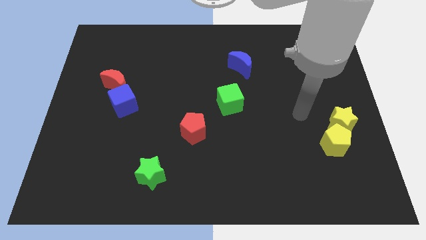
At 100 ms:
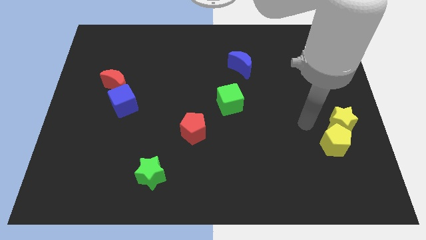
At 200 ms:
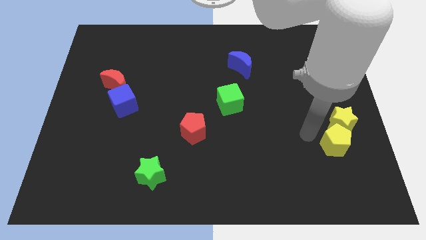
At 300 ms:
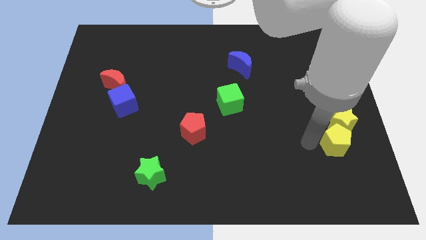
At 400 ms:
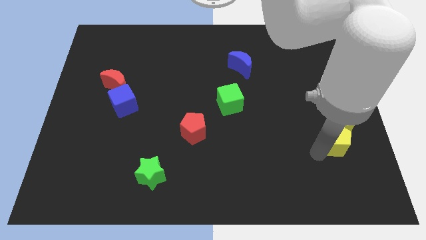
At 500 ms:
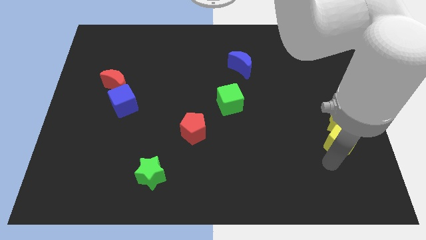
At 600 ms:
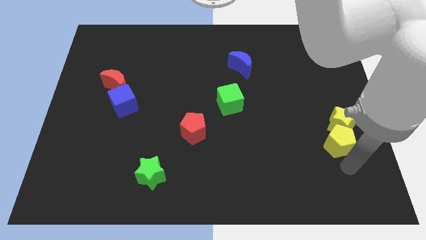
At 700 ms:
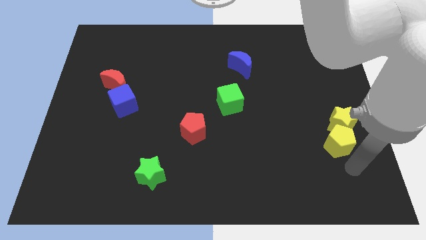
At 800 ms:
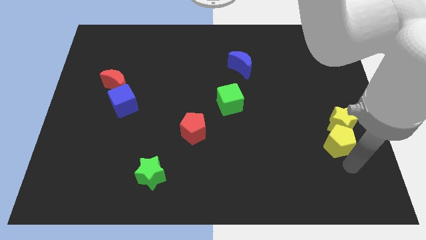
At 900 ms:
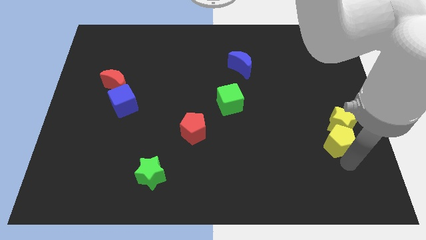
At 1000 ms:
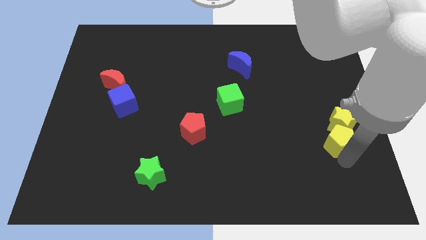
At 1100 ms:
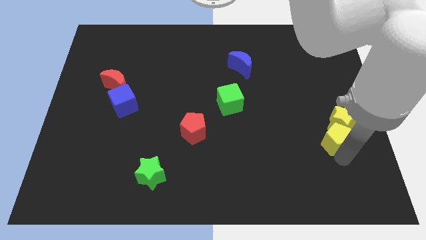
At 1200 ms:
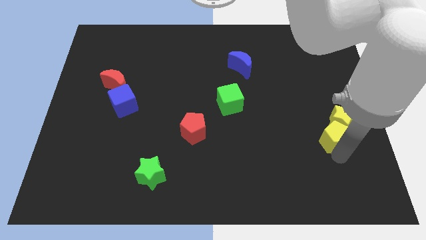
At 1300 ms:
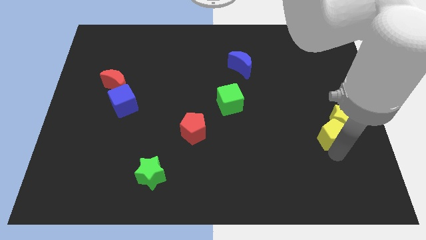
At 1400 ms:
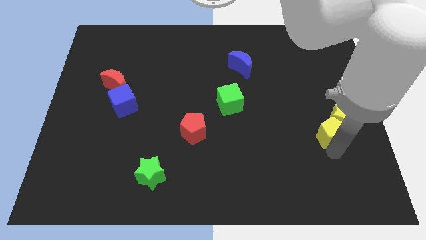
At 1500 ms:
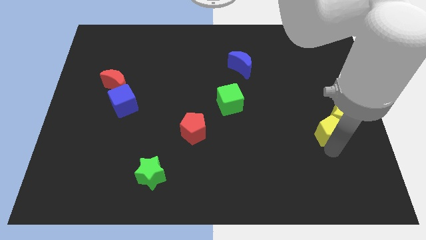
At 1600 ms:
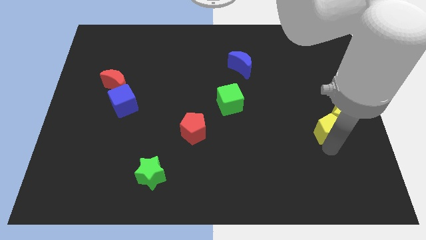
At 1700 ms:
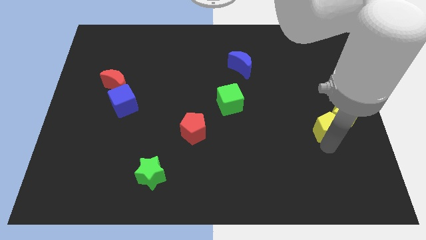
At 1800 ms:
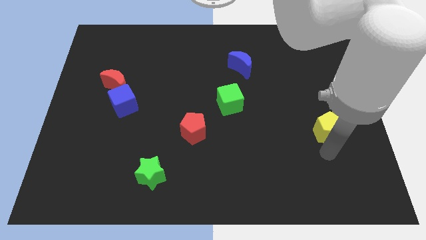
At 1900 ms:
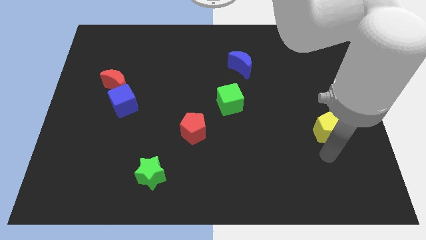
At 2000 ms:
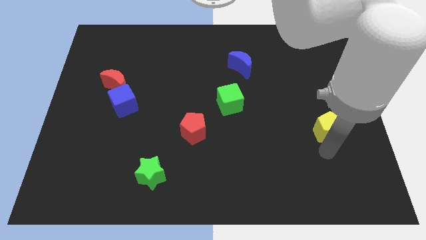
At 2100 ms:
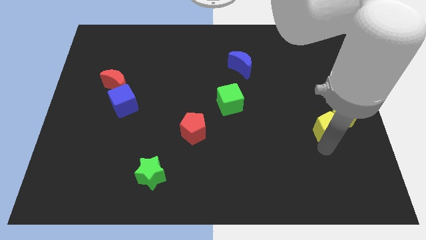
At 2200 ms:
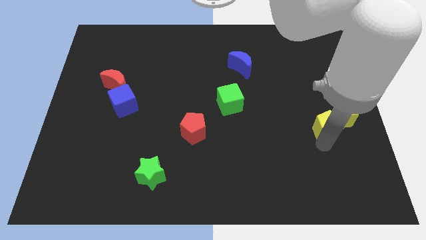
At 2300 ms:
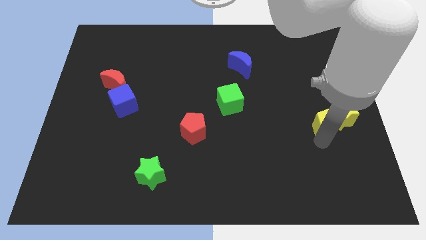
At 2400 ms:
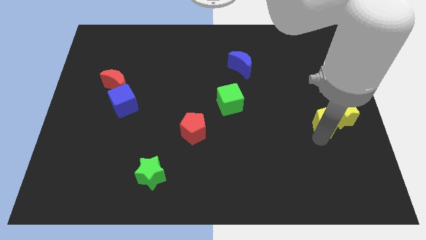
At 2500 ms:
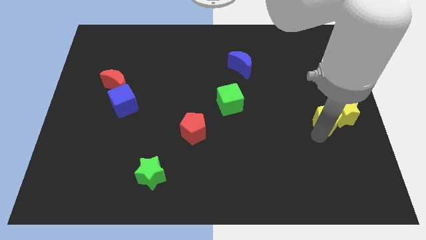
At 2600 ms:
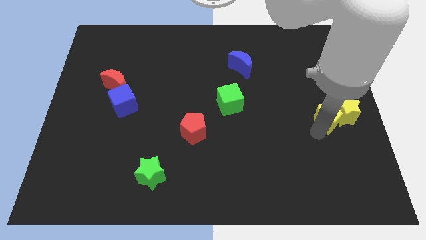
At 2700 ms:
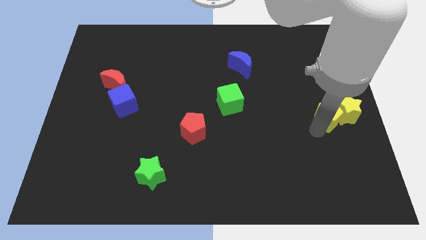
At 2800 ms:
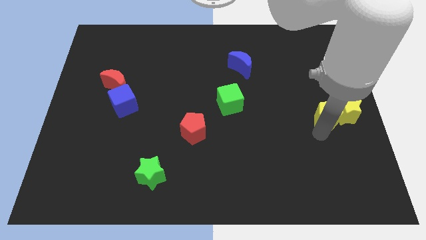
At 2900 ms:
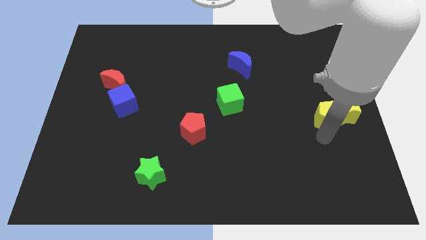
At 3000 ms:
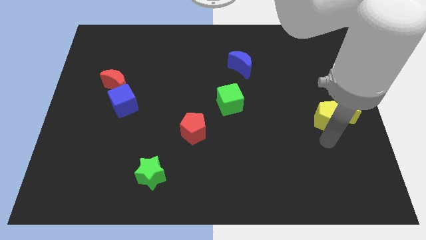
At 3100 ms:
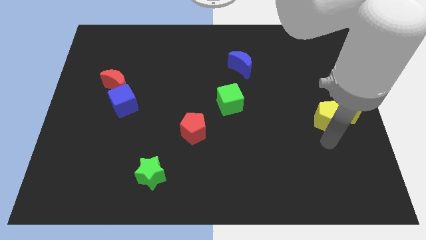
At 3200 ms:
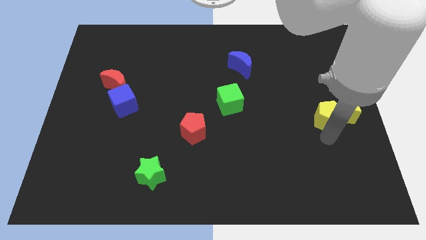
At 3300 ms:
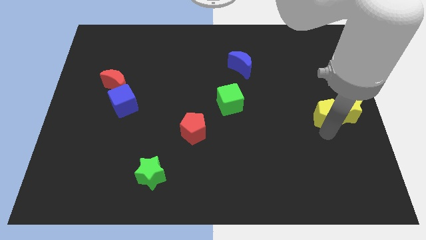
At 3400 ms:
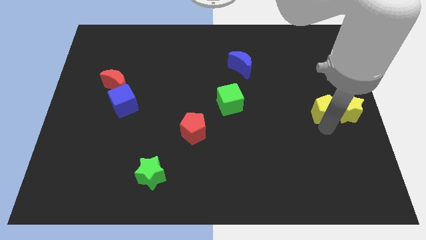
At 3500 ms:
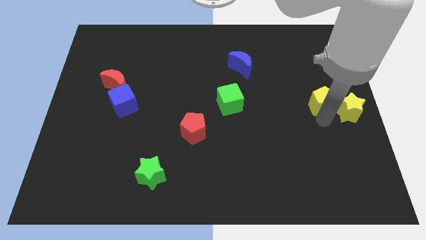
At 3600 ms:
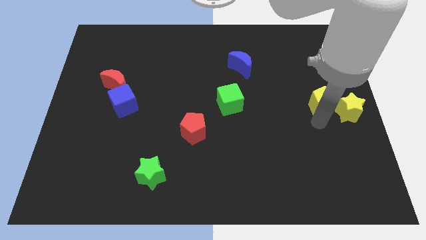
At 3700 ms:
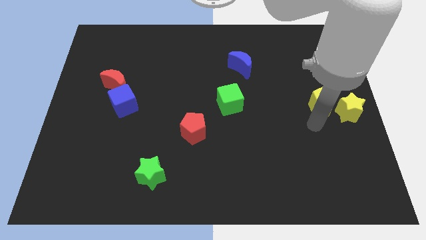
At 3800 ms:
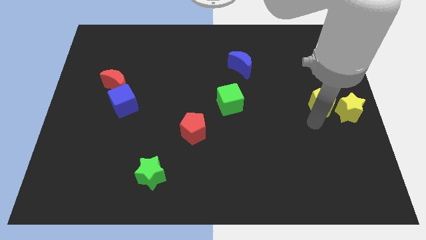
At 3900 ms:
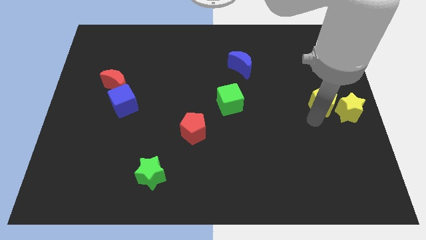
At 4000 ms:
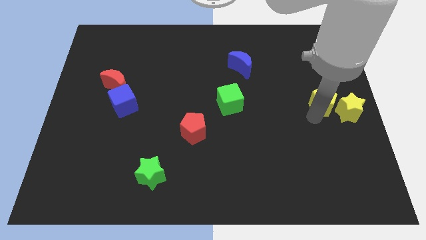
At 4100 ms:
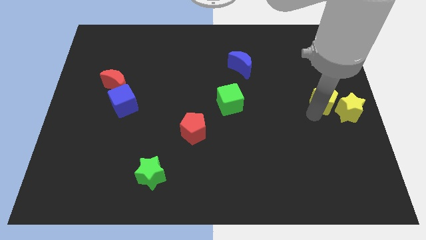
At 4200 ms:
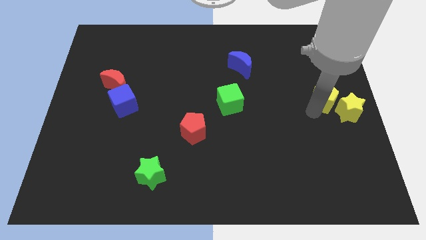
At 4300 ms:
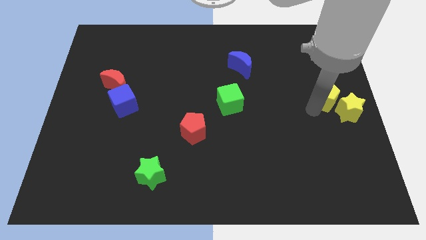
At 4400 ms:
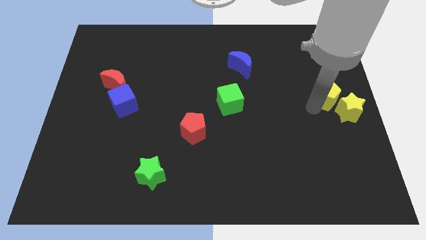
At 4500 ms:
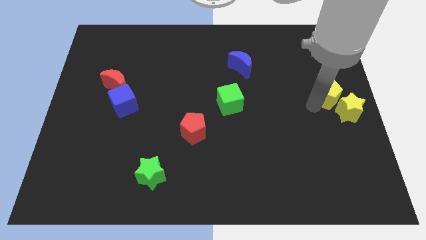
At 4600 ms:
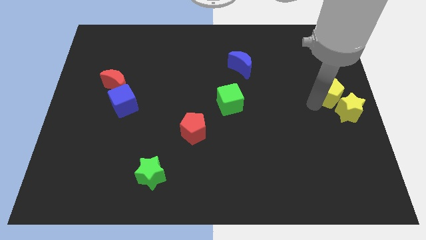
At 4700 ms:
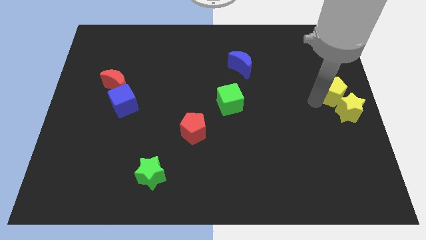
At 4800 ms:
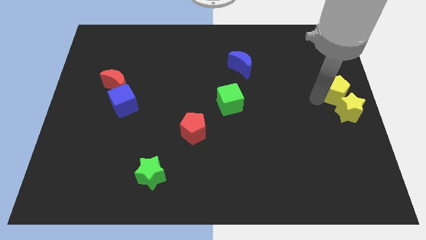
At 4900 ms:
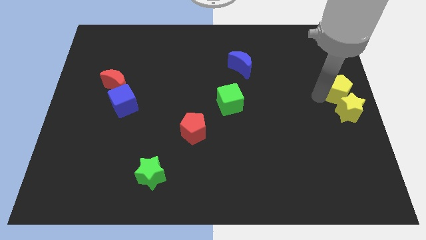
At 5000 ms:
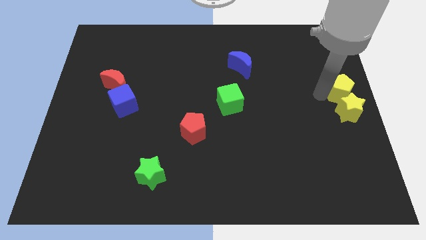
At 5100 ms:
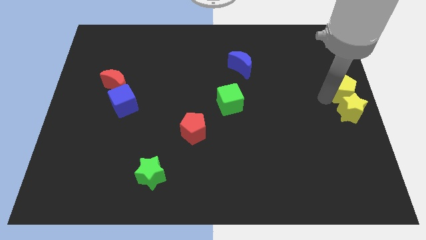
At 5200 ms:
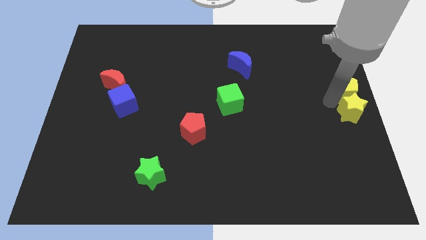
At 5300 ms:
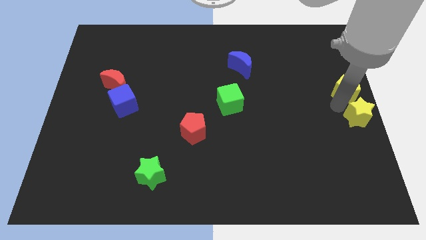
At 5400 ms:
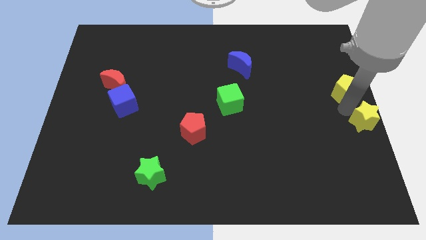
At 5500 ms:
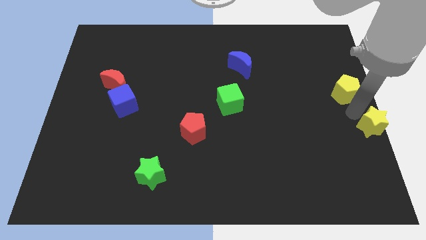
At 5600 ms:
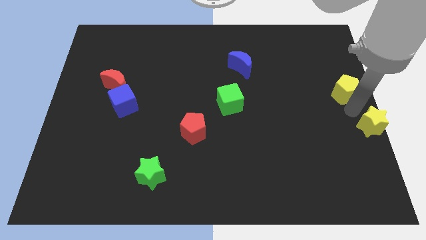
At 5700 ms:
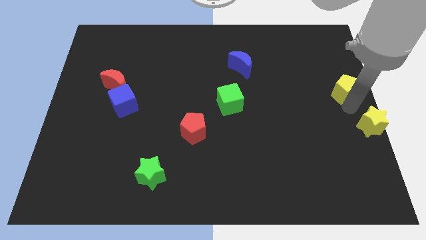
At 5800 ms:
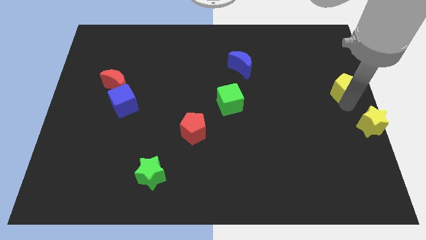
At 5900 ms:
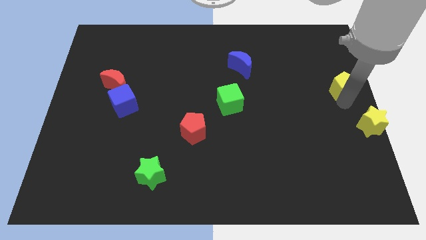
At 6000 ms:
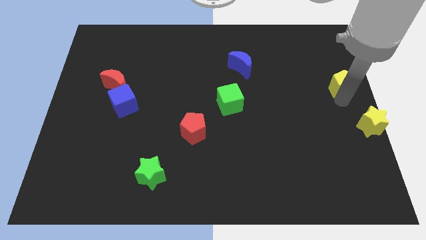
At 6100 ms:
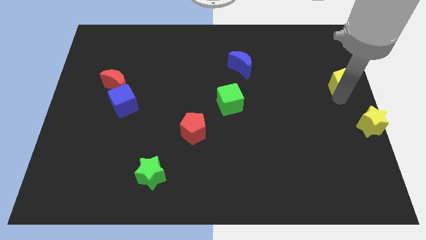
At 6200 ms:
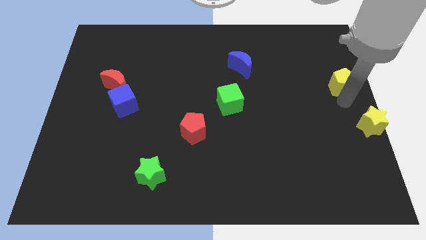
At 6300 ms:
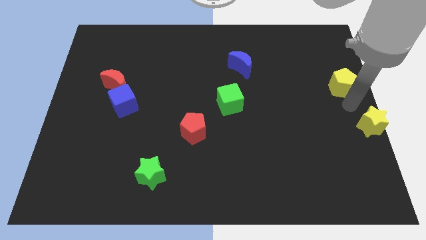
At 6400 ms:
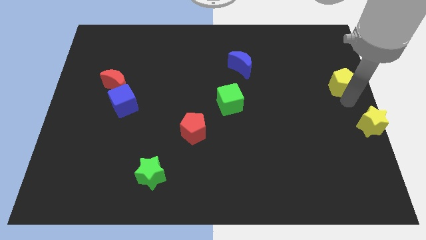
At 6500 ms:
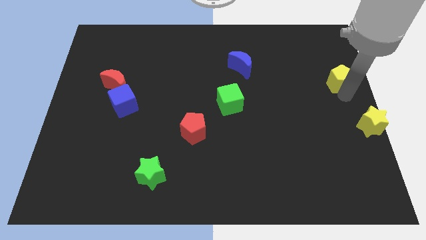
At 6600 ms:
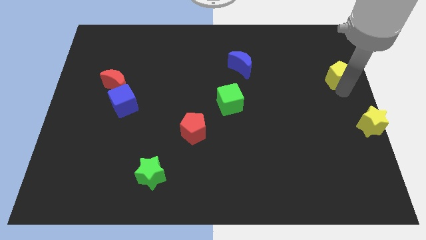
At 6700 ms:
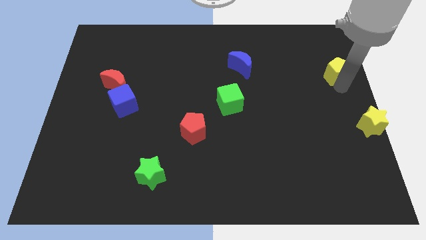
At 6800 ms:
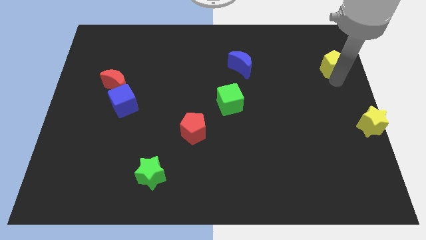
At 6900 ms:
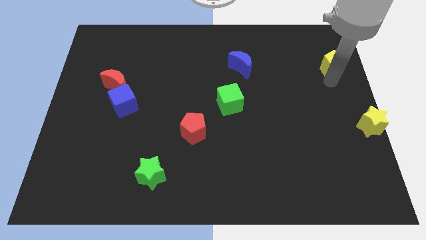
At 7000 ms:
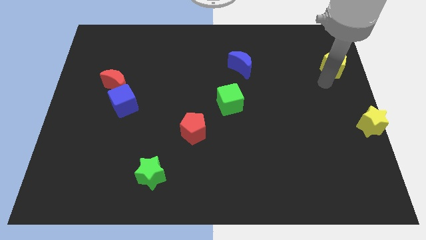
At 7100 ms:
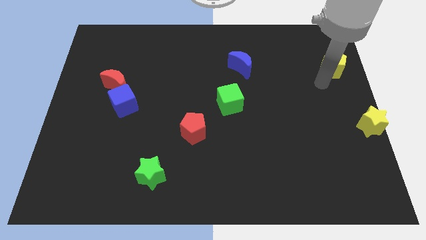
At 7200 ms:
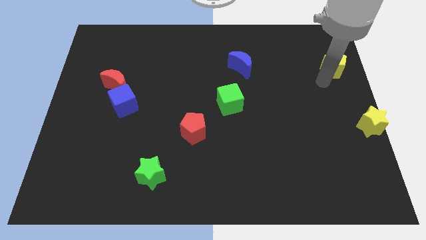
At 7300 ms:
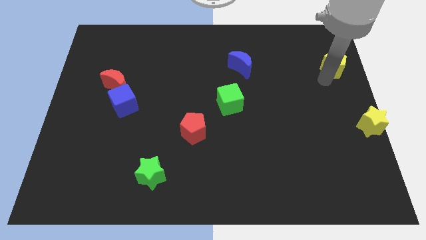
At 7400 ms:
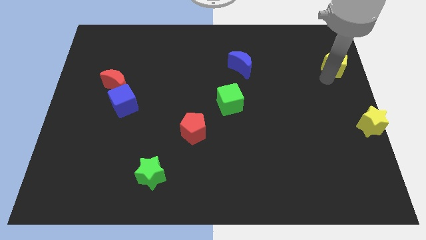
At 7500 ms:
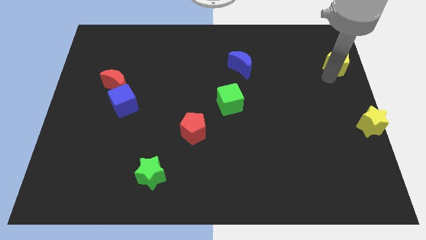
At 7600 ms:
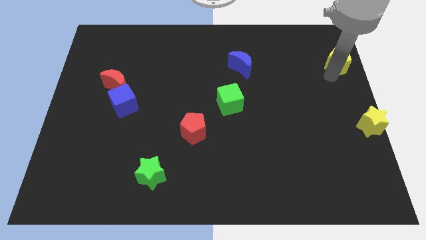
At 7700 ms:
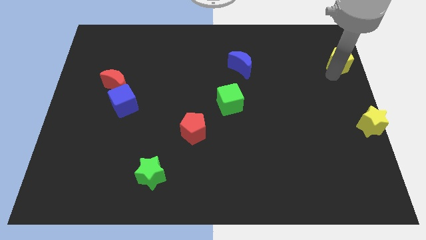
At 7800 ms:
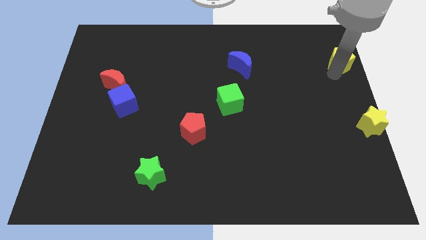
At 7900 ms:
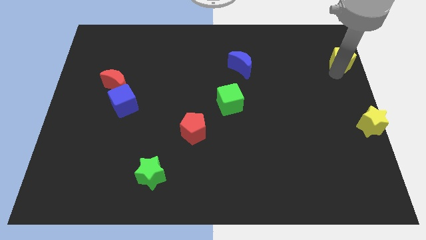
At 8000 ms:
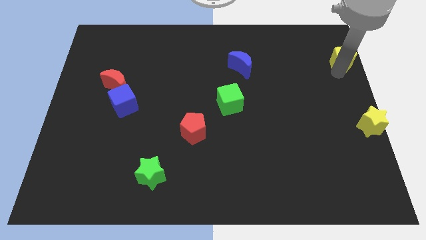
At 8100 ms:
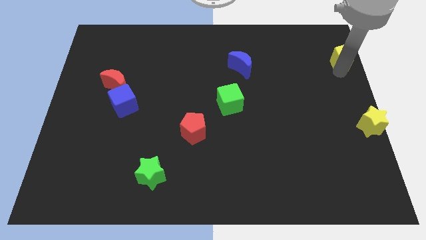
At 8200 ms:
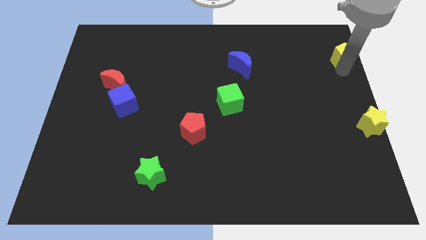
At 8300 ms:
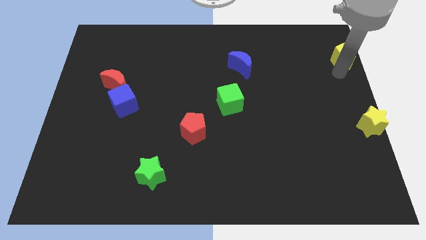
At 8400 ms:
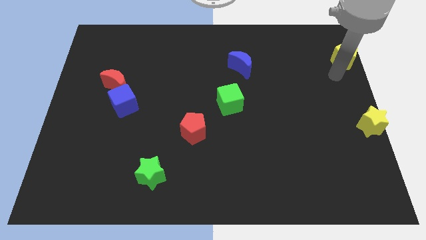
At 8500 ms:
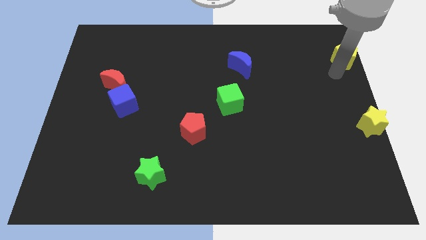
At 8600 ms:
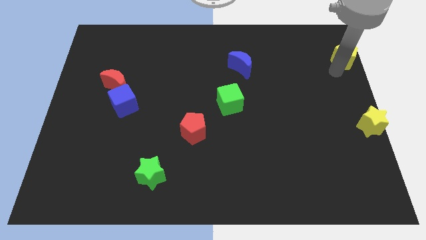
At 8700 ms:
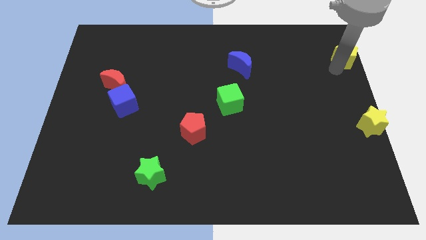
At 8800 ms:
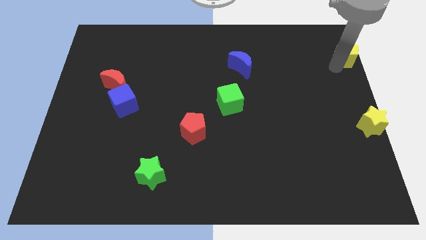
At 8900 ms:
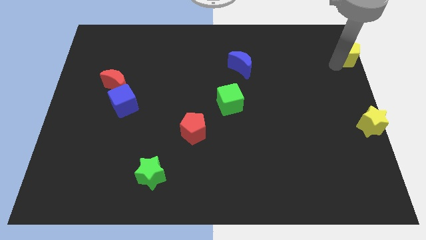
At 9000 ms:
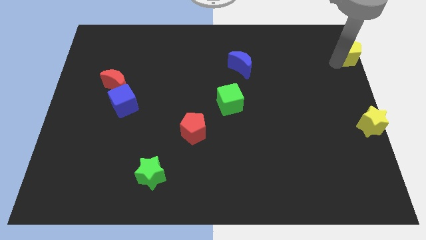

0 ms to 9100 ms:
slide the yellow pentagon to the top right corner
